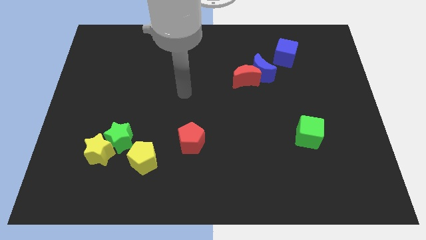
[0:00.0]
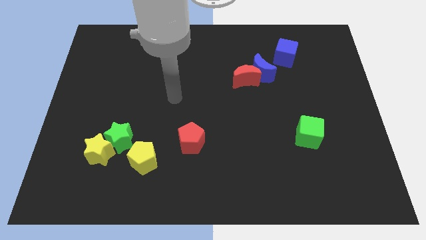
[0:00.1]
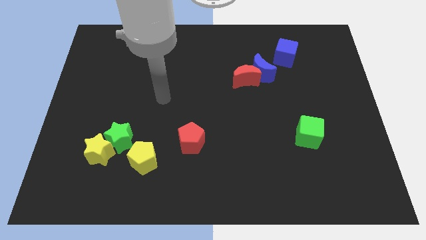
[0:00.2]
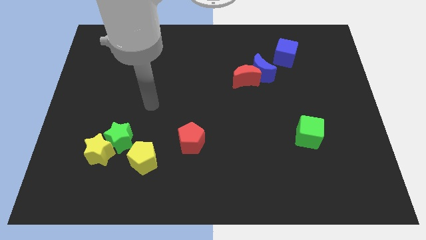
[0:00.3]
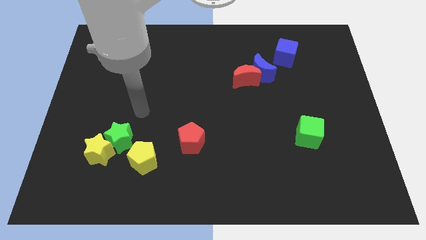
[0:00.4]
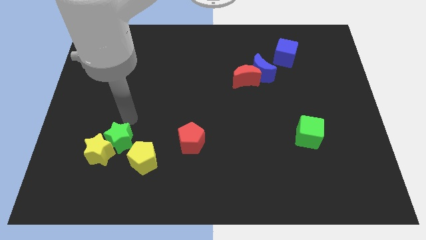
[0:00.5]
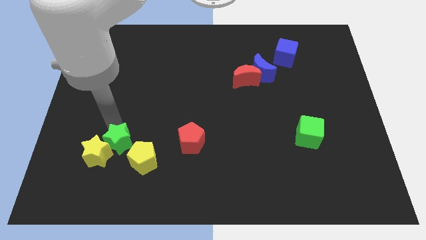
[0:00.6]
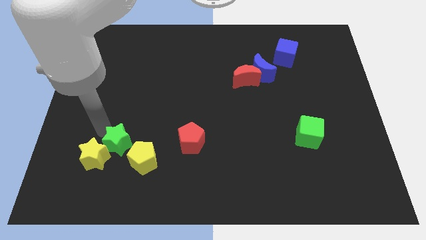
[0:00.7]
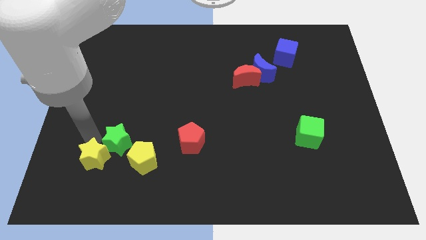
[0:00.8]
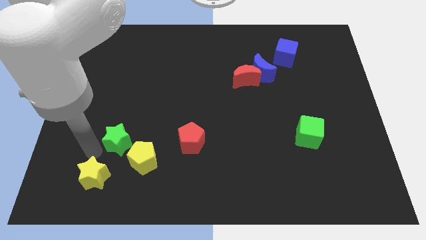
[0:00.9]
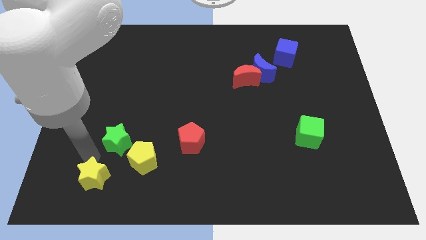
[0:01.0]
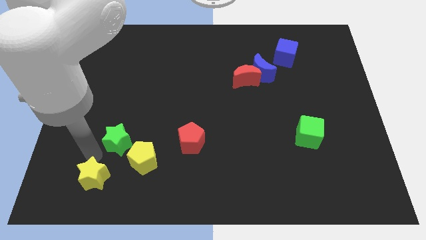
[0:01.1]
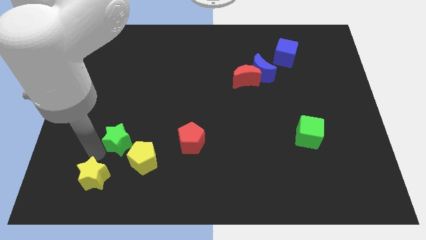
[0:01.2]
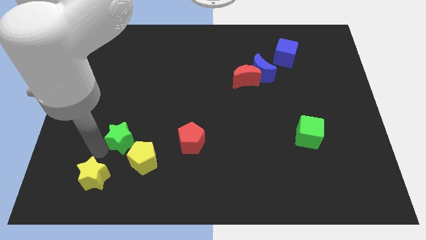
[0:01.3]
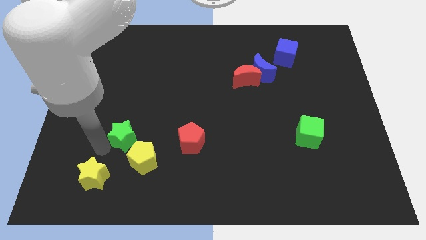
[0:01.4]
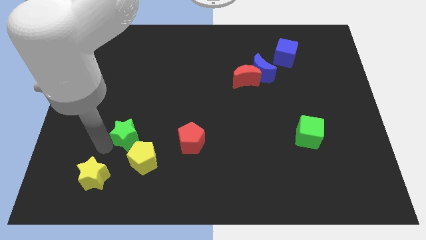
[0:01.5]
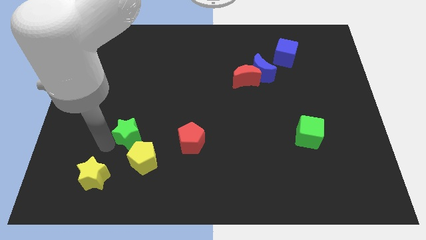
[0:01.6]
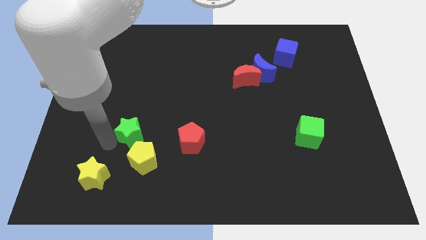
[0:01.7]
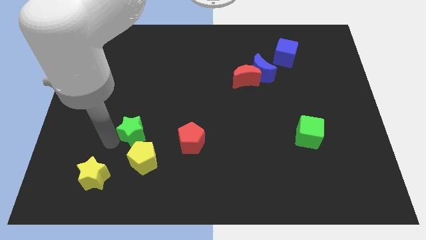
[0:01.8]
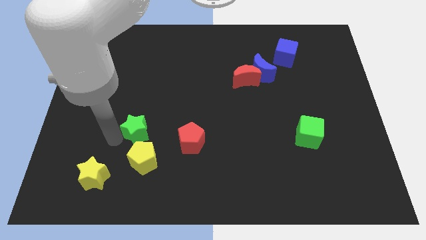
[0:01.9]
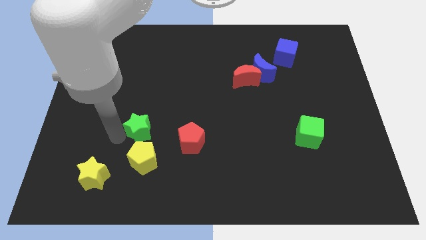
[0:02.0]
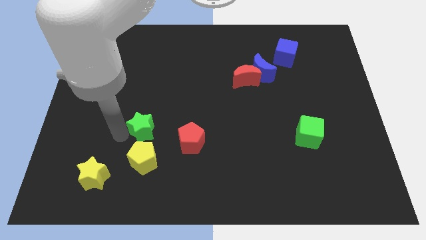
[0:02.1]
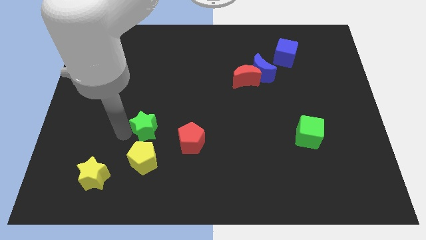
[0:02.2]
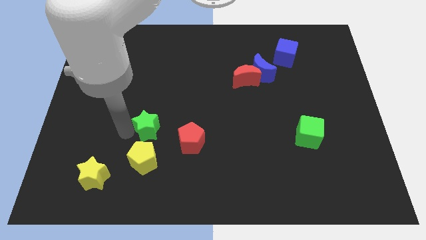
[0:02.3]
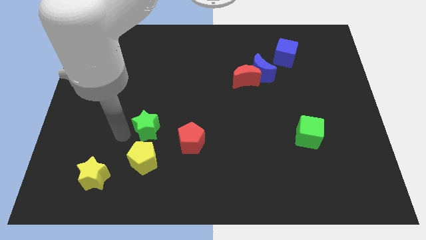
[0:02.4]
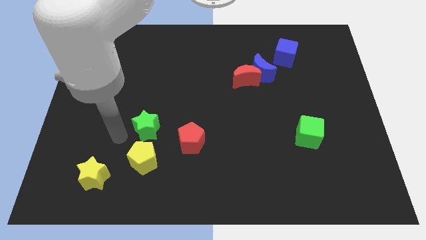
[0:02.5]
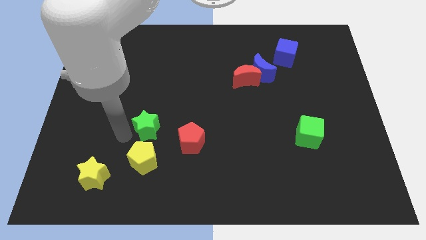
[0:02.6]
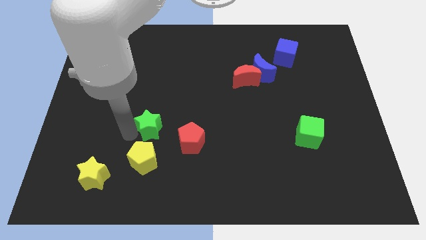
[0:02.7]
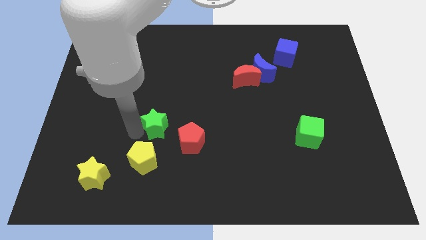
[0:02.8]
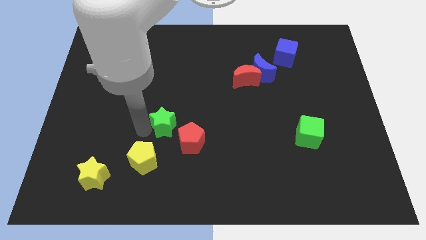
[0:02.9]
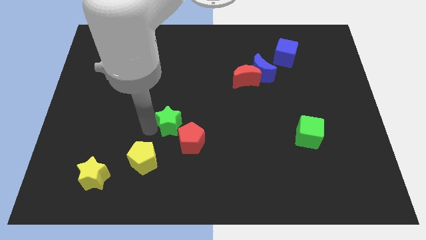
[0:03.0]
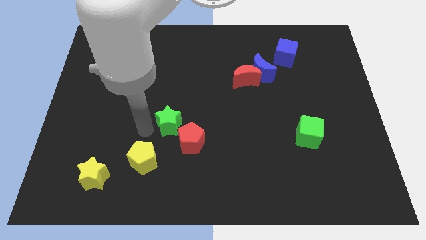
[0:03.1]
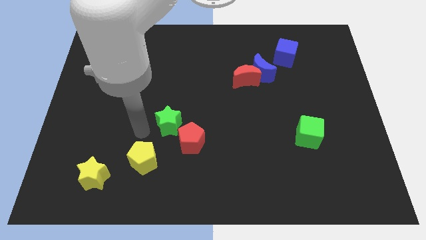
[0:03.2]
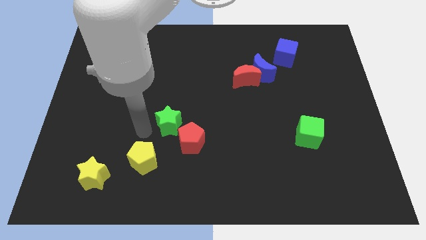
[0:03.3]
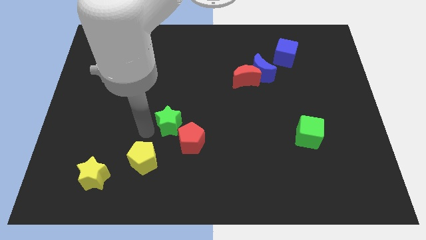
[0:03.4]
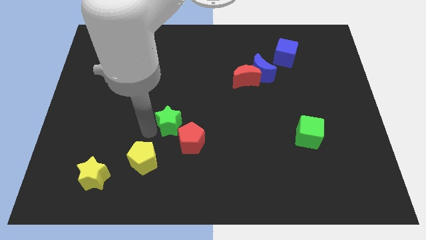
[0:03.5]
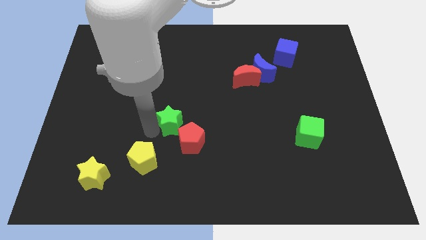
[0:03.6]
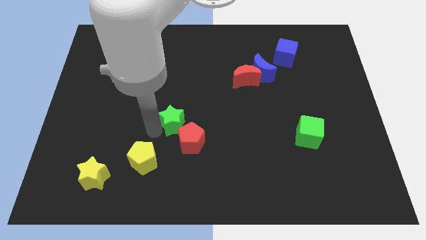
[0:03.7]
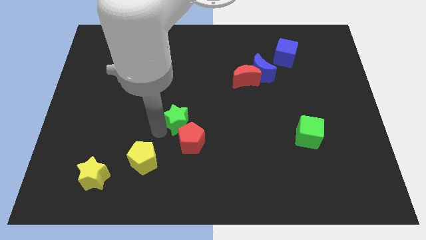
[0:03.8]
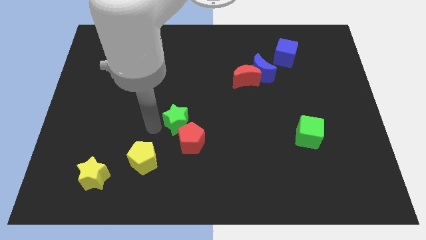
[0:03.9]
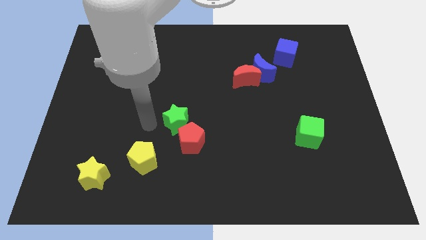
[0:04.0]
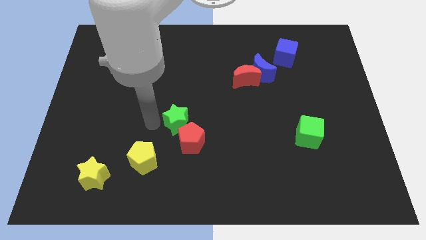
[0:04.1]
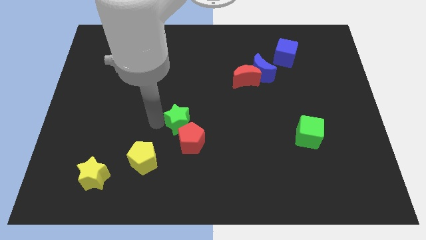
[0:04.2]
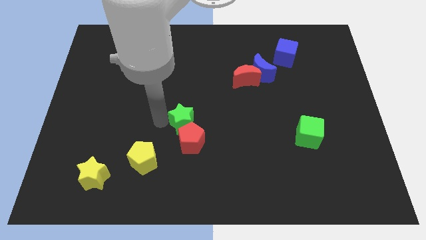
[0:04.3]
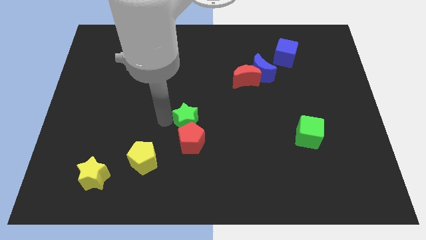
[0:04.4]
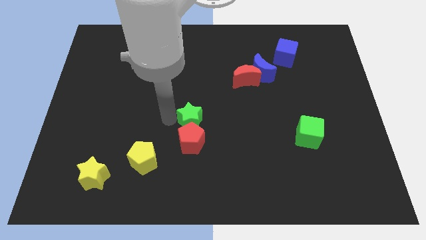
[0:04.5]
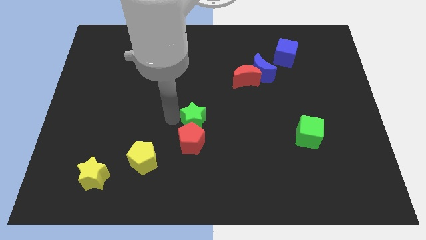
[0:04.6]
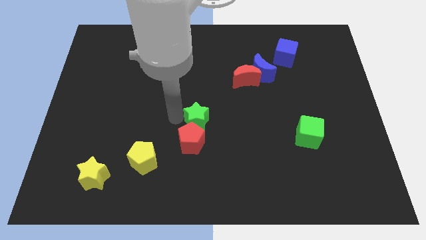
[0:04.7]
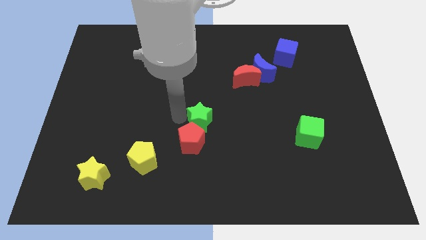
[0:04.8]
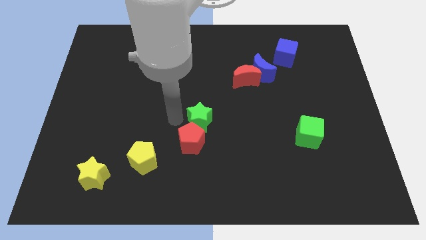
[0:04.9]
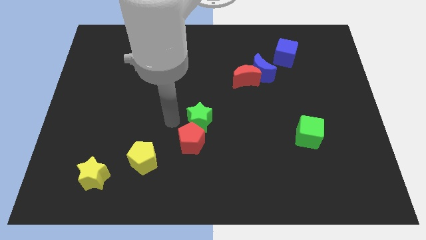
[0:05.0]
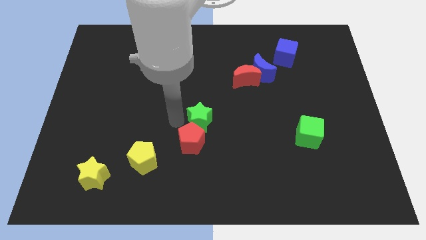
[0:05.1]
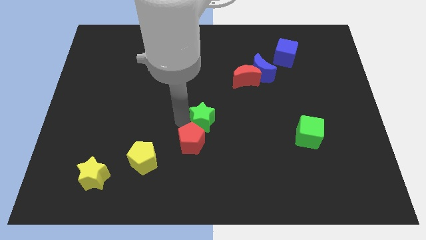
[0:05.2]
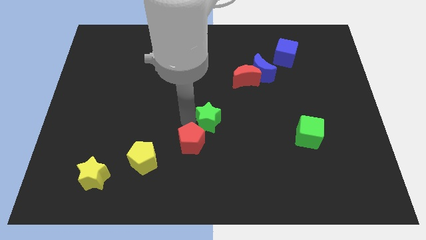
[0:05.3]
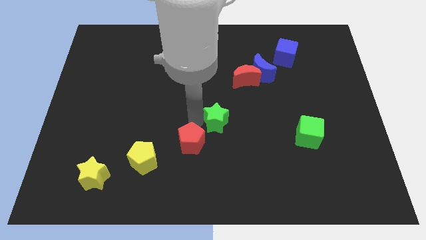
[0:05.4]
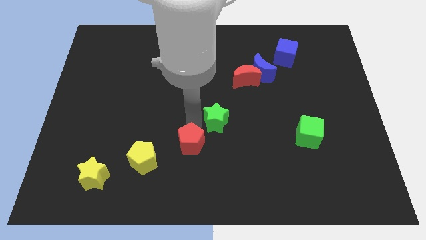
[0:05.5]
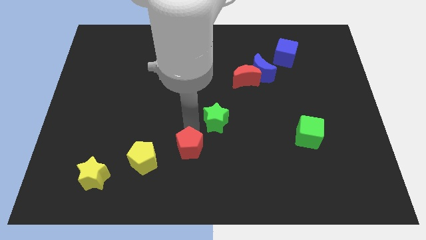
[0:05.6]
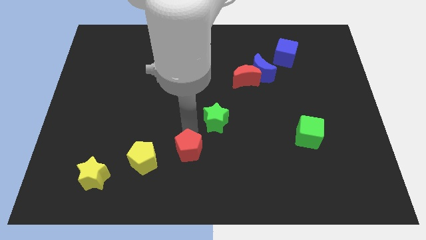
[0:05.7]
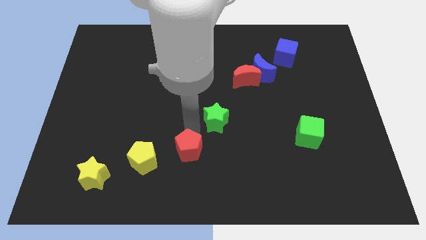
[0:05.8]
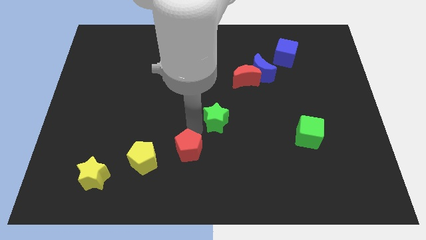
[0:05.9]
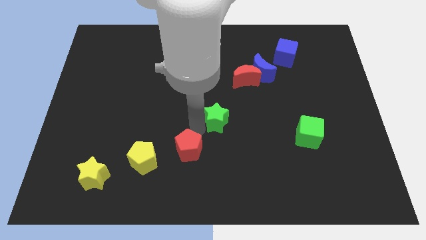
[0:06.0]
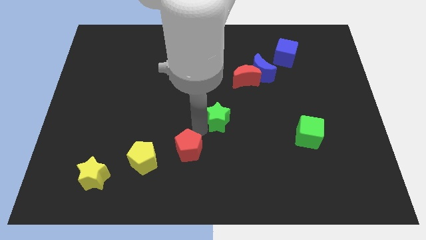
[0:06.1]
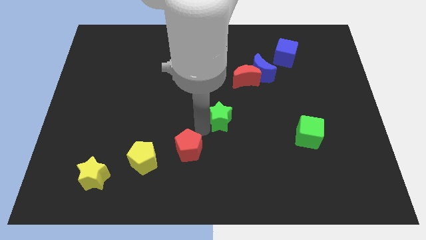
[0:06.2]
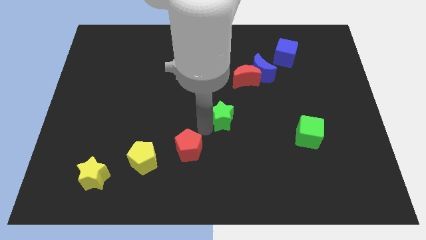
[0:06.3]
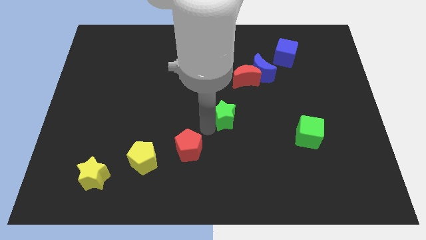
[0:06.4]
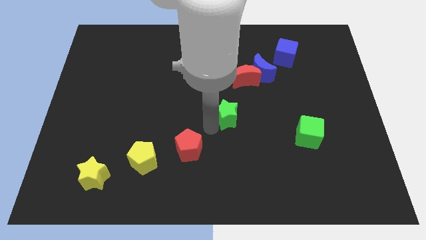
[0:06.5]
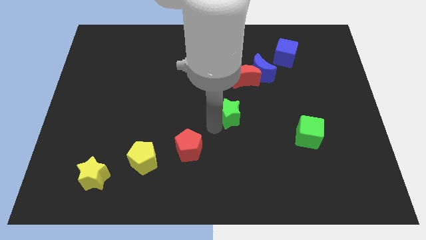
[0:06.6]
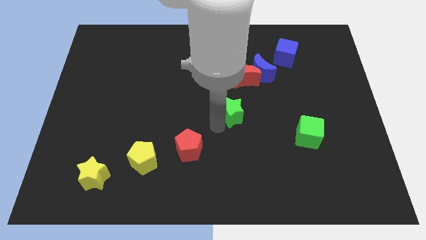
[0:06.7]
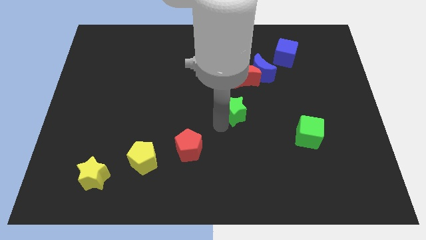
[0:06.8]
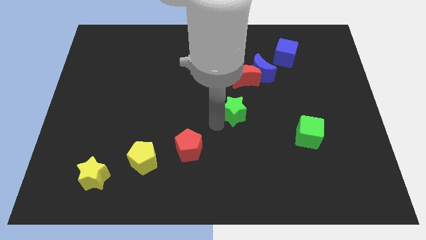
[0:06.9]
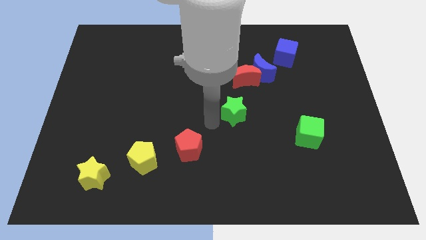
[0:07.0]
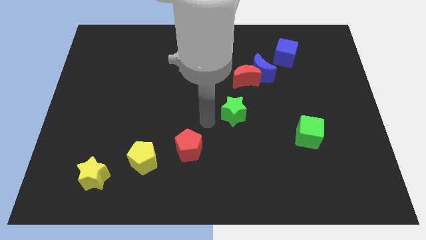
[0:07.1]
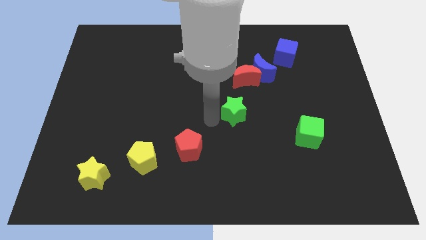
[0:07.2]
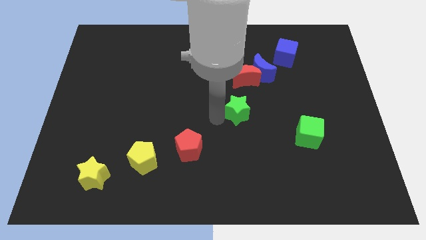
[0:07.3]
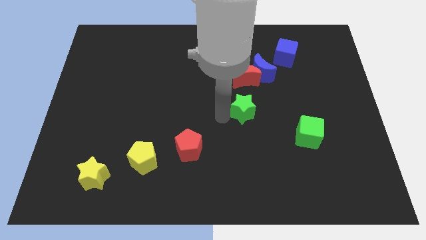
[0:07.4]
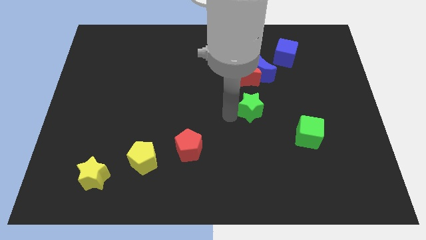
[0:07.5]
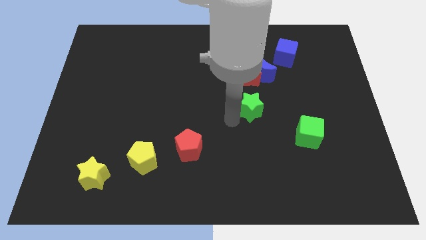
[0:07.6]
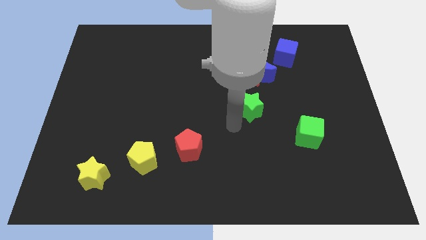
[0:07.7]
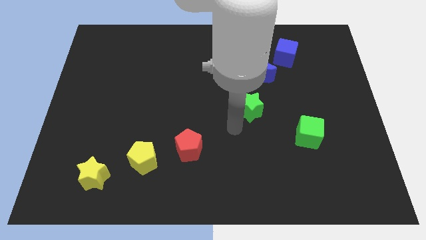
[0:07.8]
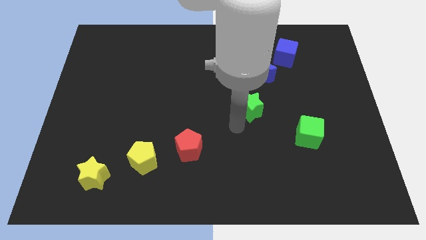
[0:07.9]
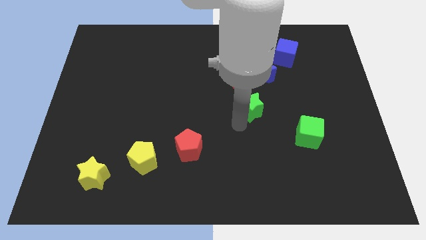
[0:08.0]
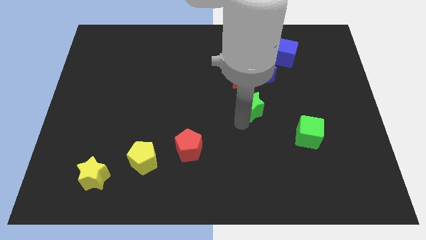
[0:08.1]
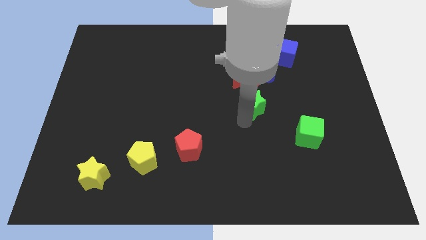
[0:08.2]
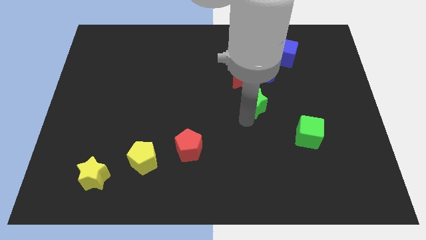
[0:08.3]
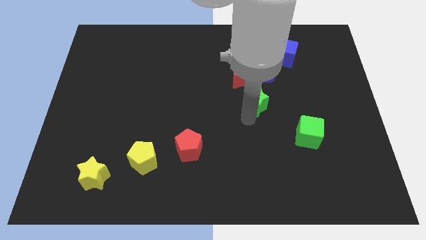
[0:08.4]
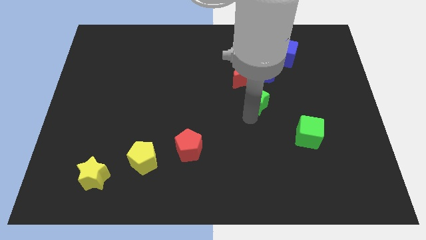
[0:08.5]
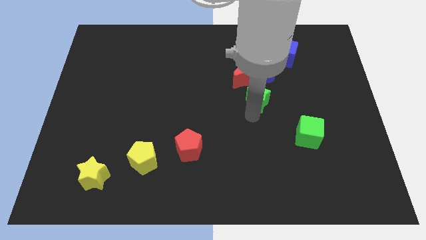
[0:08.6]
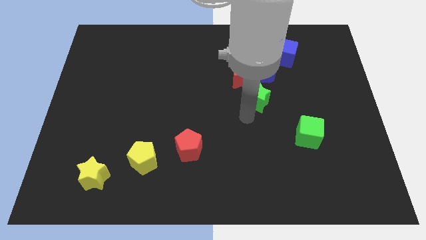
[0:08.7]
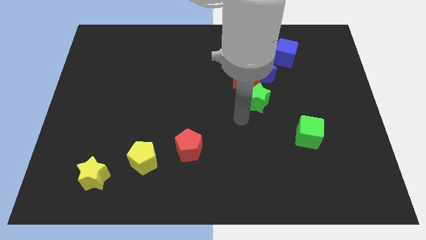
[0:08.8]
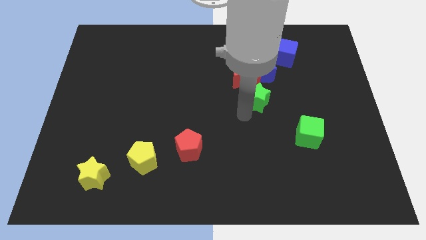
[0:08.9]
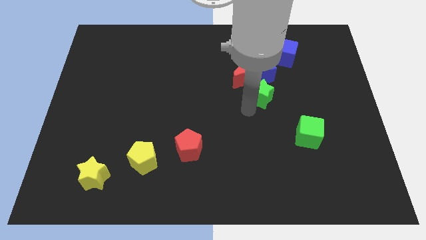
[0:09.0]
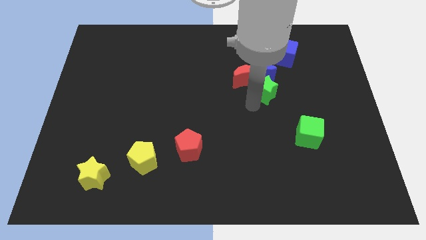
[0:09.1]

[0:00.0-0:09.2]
push the green star to the red moon
